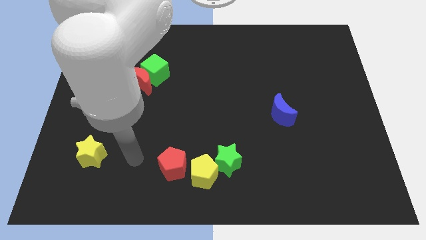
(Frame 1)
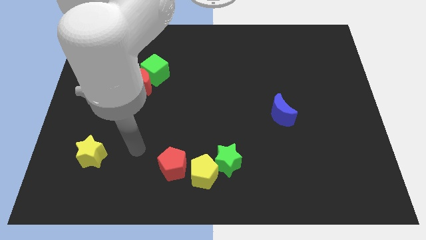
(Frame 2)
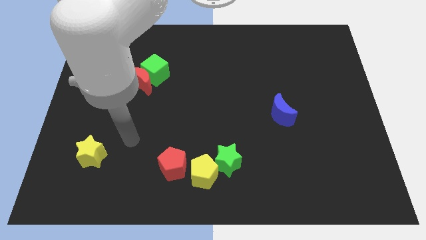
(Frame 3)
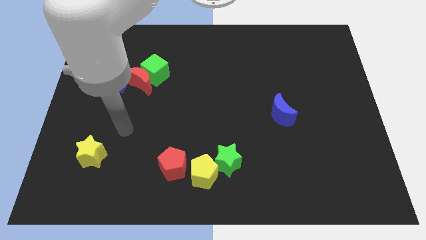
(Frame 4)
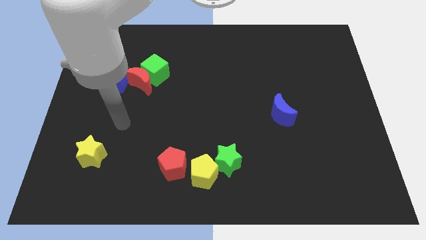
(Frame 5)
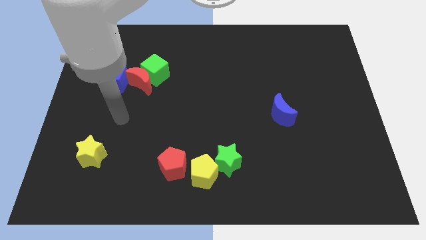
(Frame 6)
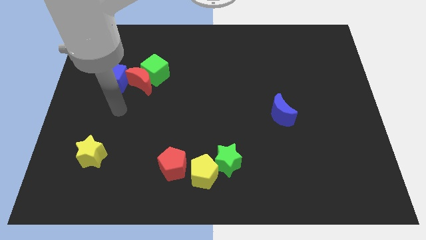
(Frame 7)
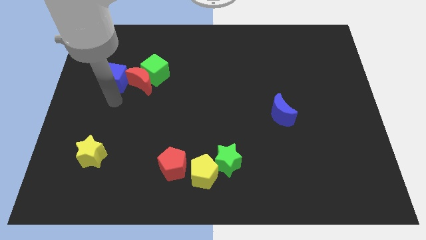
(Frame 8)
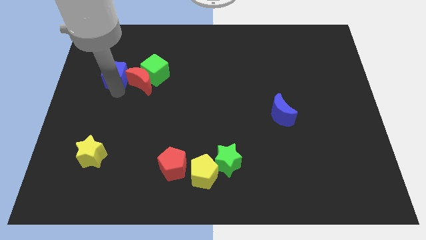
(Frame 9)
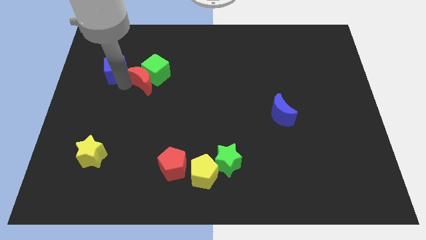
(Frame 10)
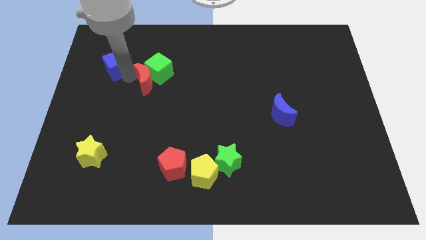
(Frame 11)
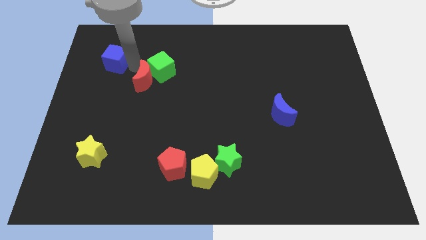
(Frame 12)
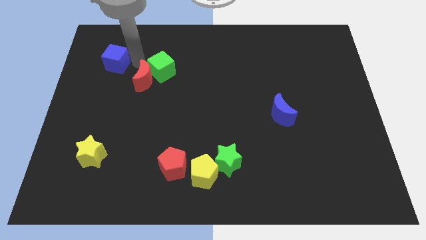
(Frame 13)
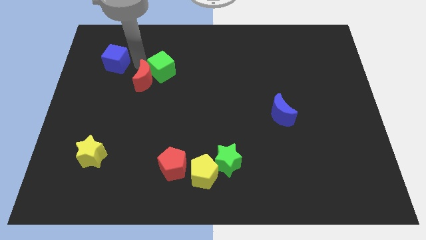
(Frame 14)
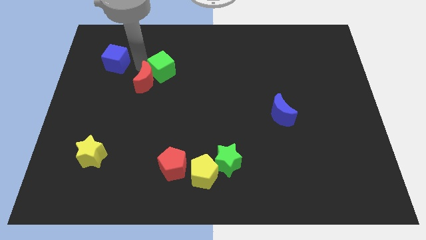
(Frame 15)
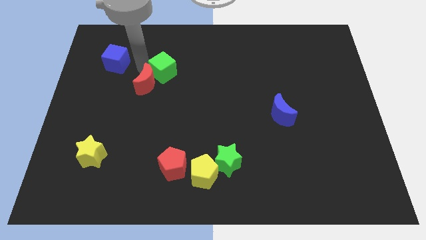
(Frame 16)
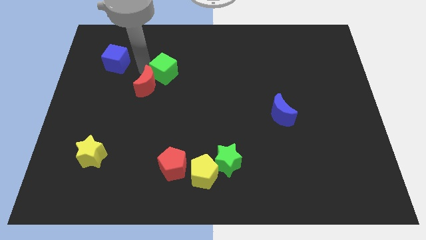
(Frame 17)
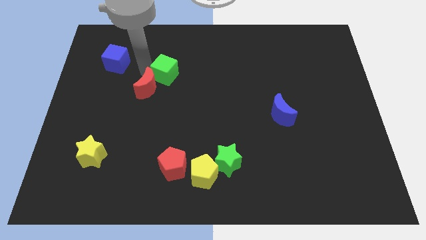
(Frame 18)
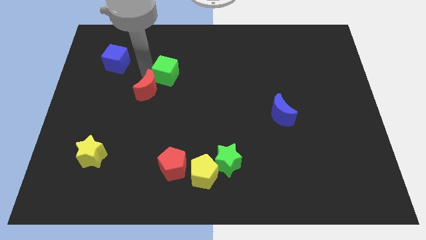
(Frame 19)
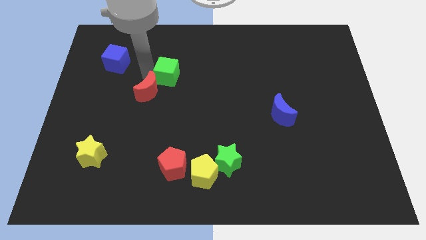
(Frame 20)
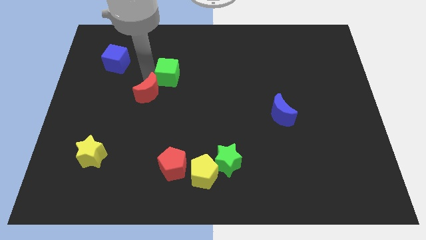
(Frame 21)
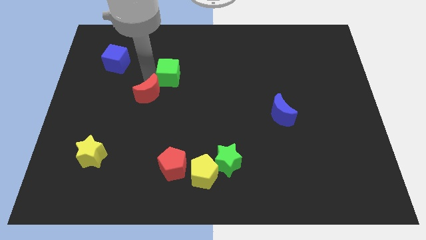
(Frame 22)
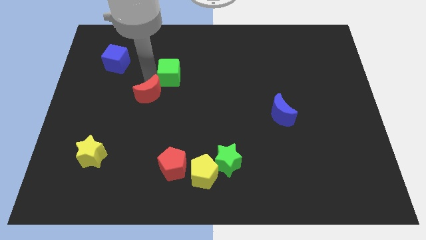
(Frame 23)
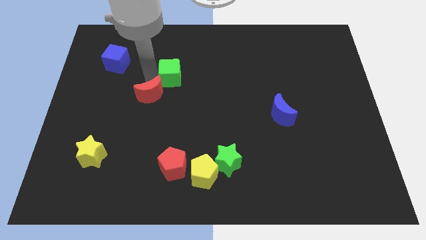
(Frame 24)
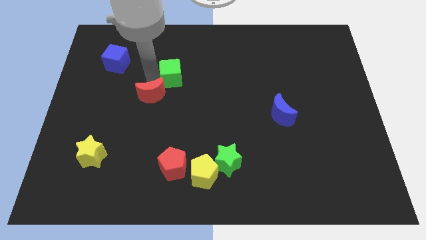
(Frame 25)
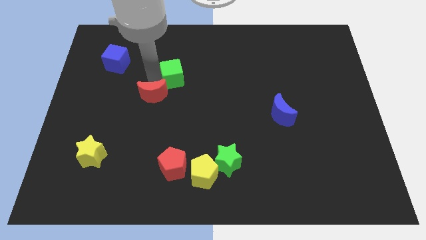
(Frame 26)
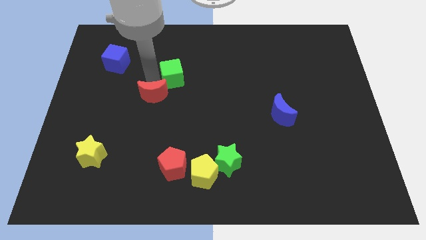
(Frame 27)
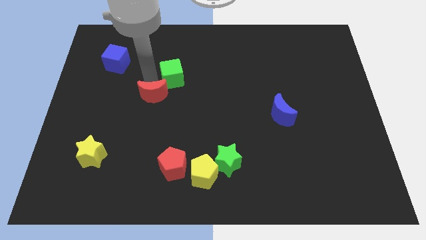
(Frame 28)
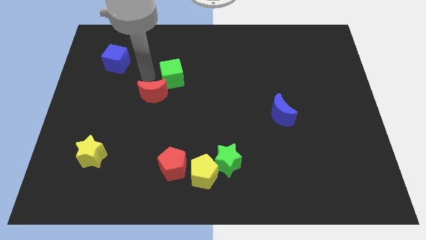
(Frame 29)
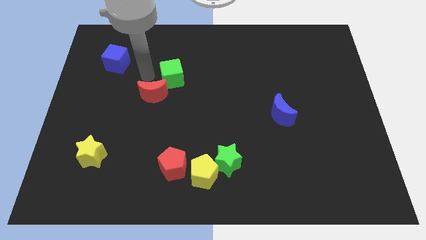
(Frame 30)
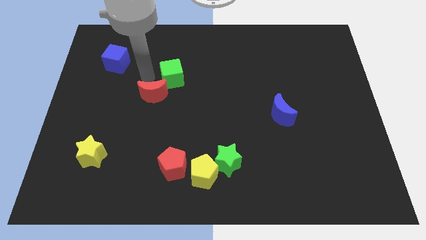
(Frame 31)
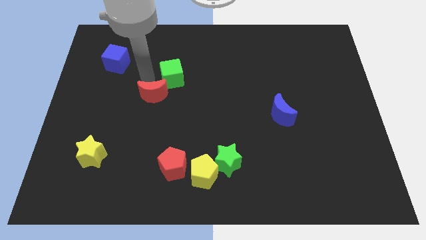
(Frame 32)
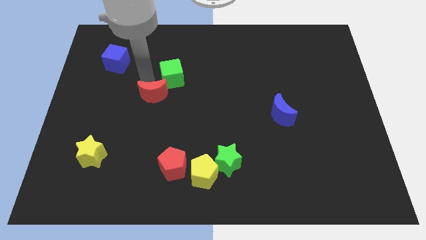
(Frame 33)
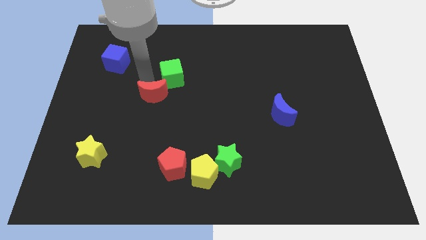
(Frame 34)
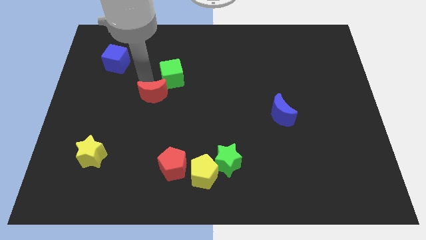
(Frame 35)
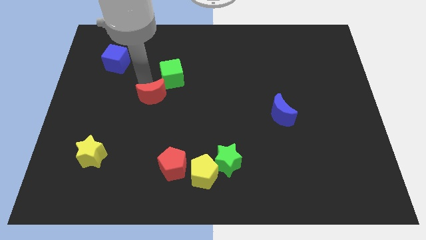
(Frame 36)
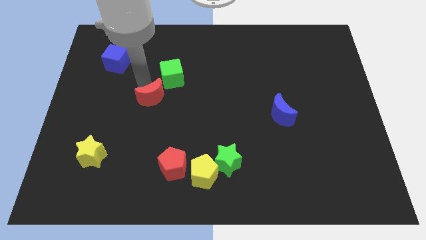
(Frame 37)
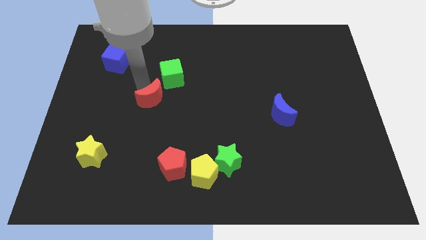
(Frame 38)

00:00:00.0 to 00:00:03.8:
separate the red moon from the green cube and blue cube

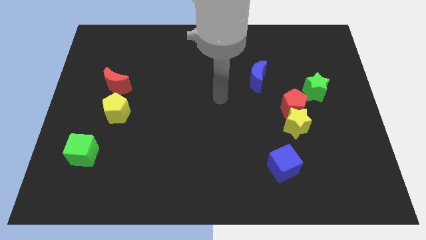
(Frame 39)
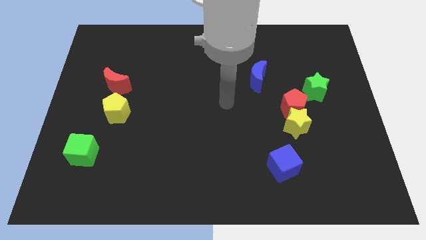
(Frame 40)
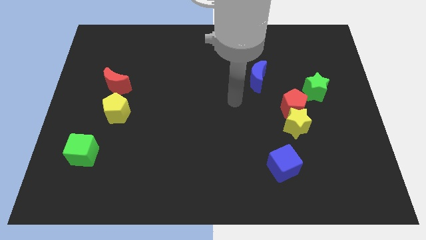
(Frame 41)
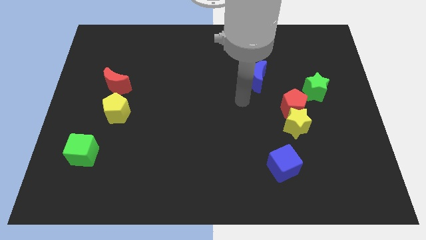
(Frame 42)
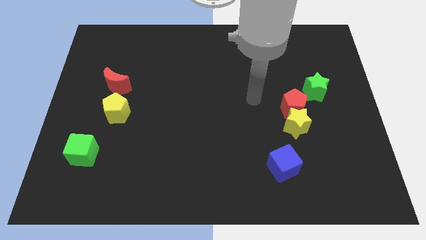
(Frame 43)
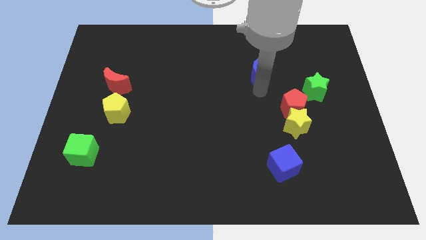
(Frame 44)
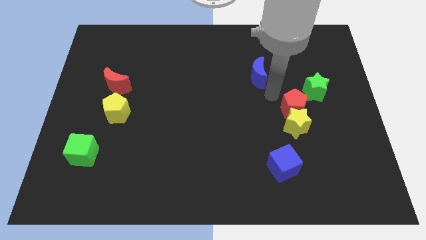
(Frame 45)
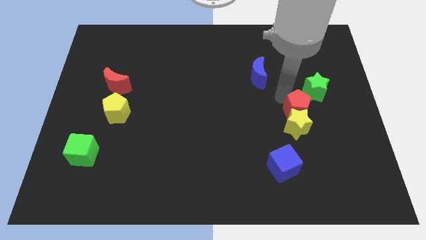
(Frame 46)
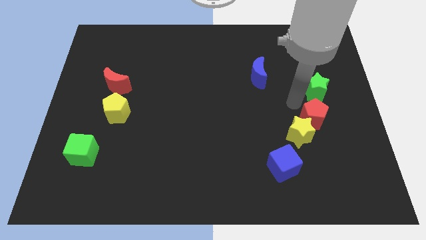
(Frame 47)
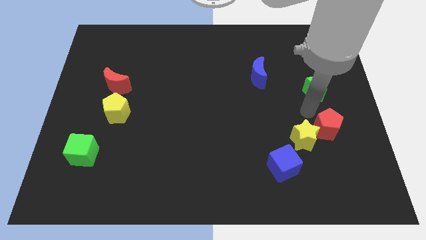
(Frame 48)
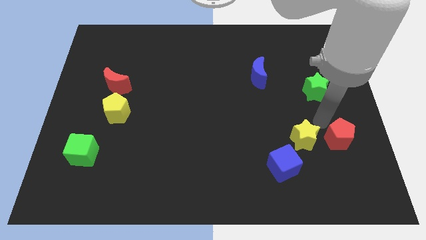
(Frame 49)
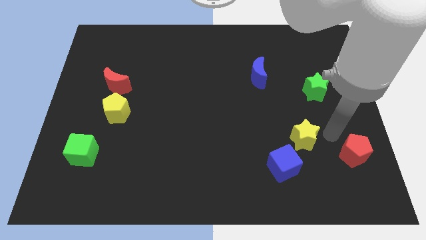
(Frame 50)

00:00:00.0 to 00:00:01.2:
pull the yellow star apart from the red pentagon

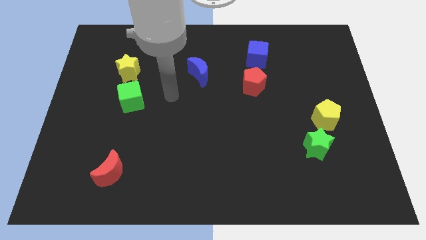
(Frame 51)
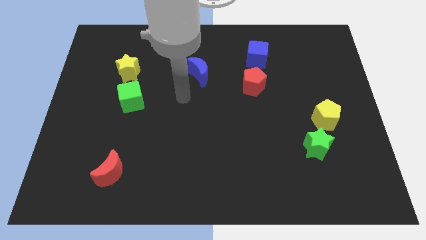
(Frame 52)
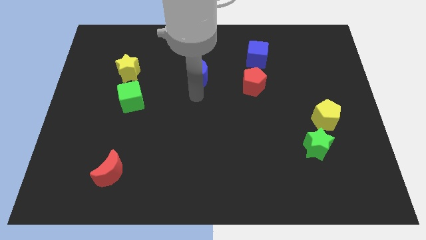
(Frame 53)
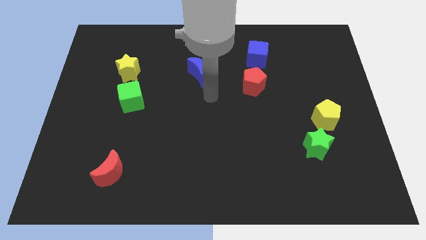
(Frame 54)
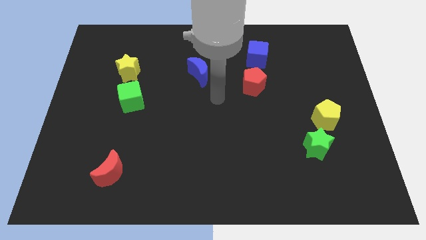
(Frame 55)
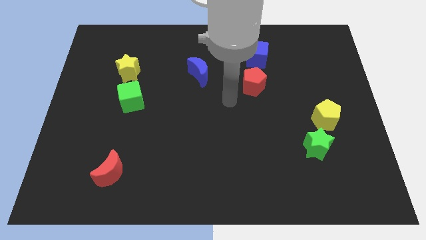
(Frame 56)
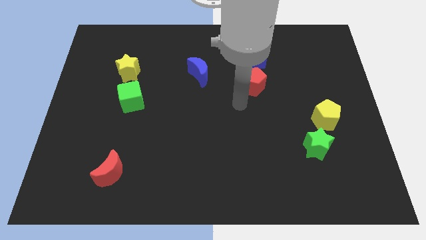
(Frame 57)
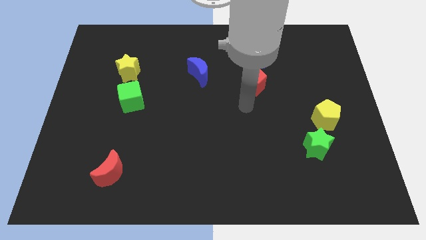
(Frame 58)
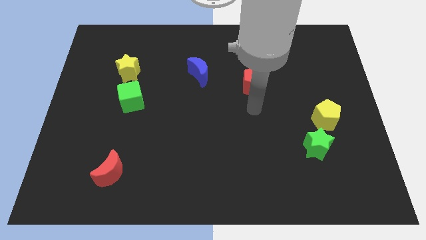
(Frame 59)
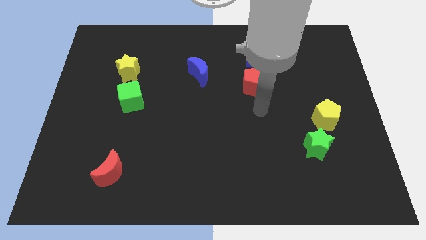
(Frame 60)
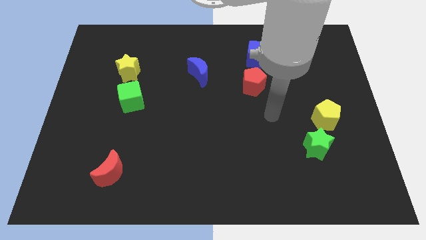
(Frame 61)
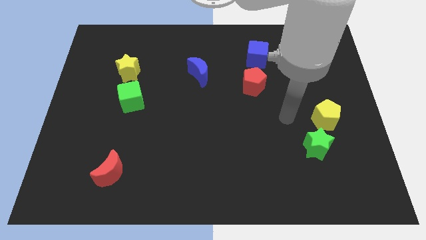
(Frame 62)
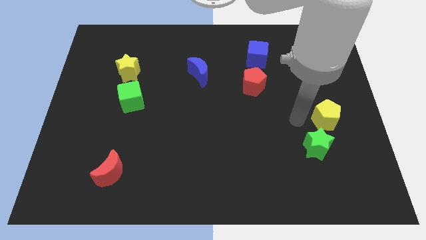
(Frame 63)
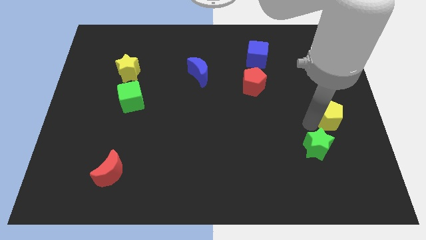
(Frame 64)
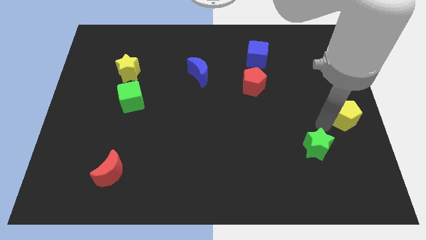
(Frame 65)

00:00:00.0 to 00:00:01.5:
move the green star away from the yellow pentagon

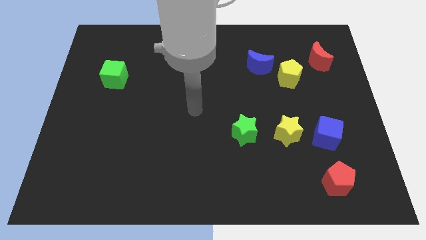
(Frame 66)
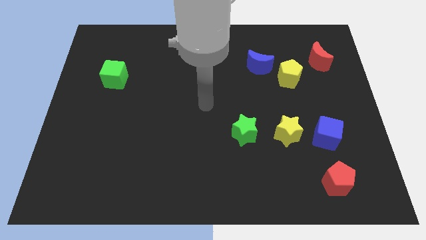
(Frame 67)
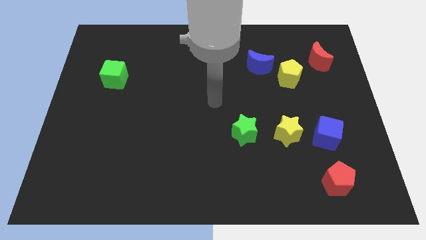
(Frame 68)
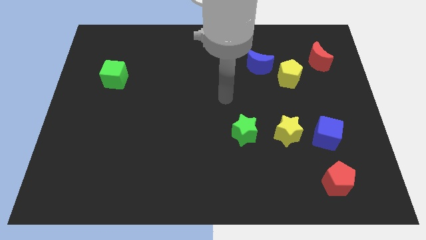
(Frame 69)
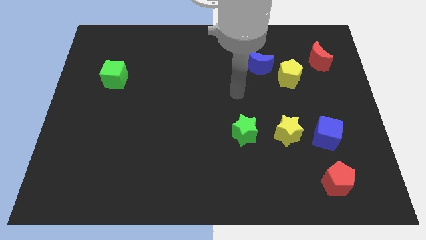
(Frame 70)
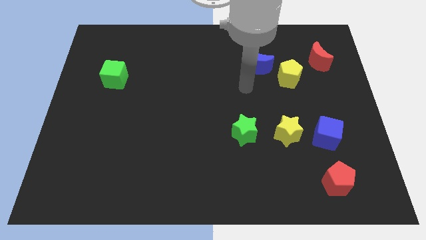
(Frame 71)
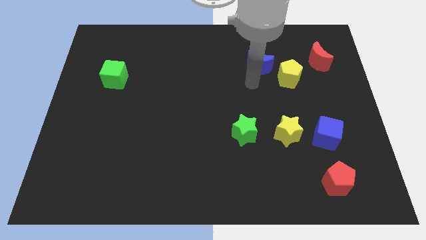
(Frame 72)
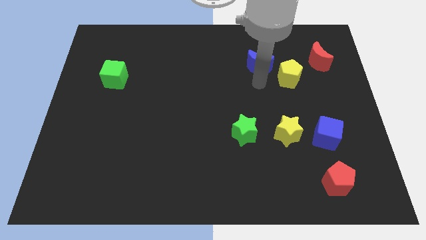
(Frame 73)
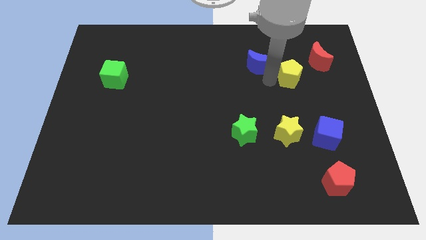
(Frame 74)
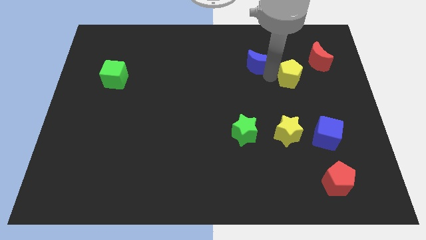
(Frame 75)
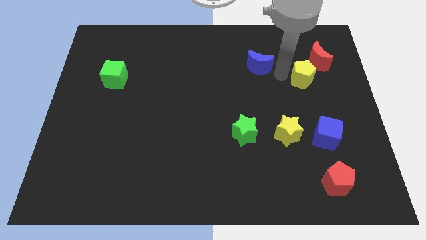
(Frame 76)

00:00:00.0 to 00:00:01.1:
separate the blue moon from the yellow pentagon

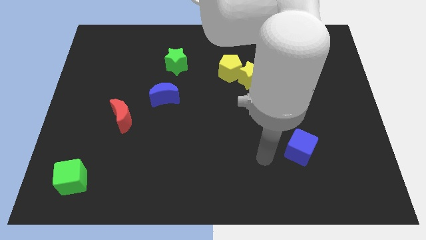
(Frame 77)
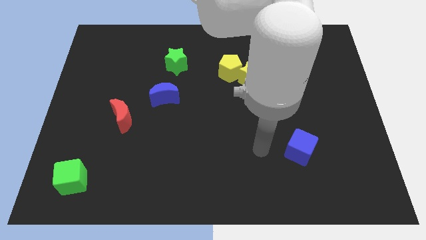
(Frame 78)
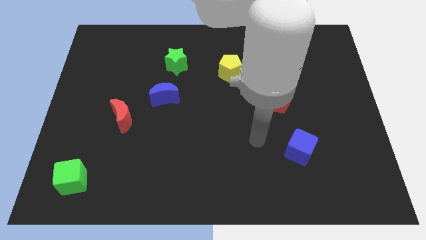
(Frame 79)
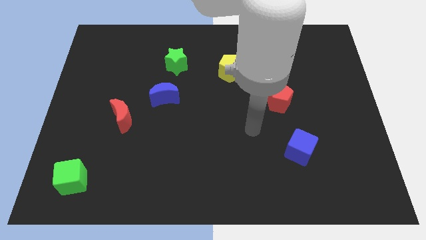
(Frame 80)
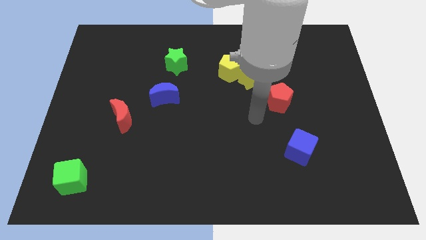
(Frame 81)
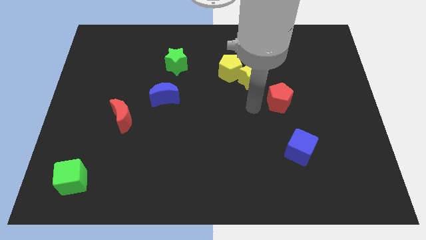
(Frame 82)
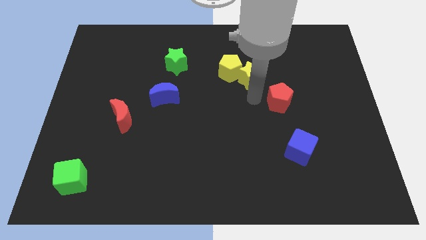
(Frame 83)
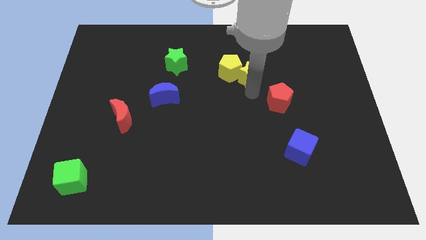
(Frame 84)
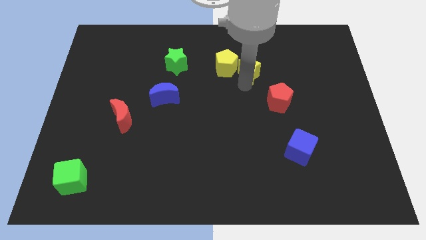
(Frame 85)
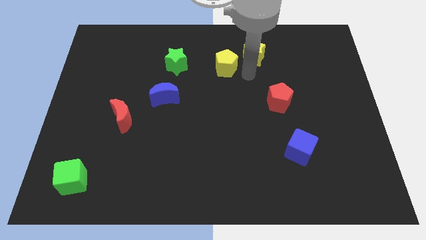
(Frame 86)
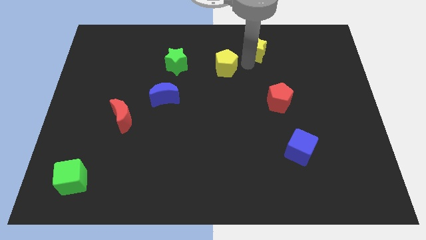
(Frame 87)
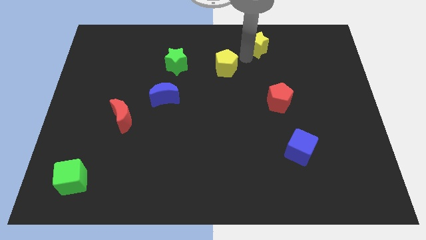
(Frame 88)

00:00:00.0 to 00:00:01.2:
pull the yellow pentagon apart from the yellow star

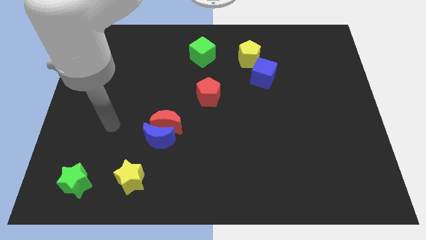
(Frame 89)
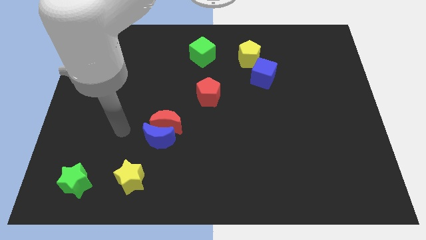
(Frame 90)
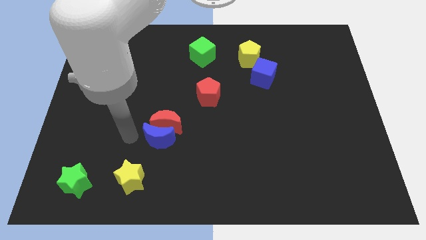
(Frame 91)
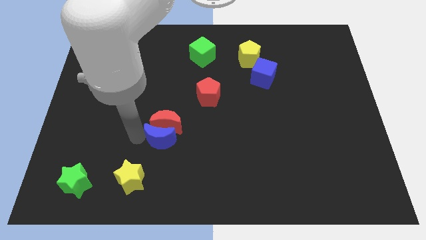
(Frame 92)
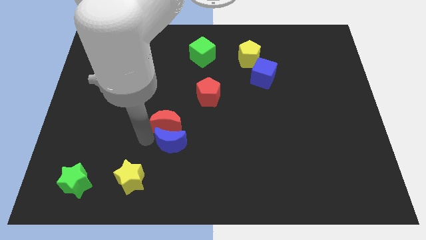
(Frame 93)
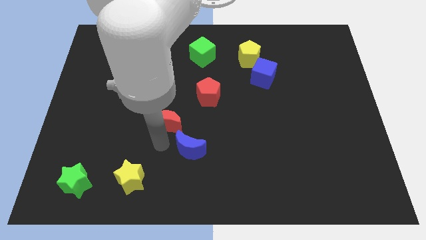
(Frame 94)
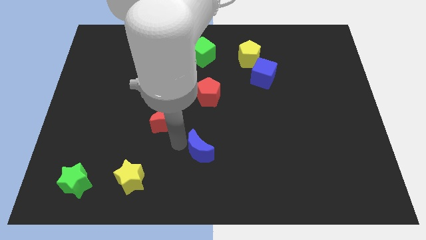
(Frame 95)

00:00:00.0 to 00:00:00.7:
move the red moon away from the blue moon
